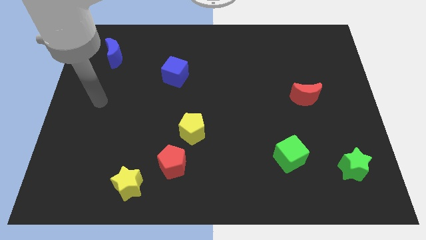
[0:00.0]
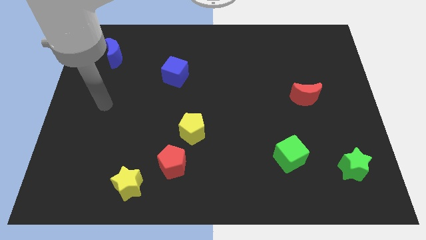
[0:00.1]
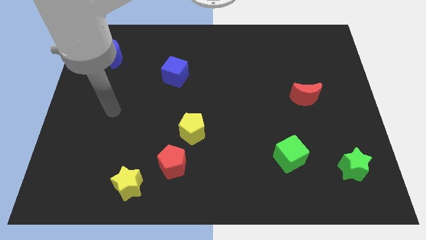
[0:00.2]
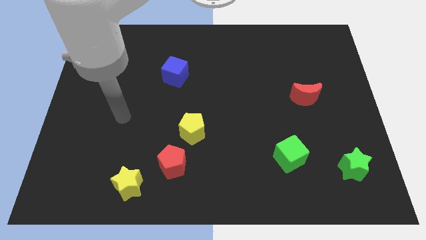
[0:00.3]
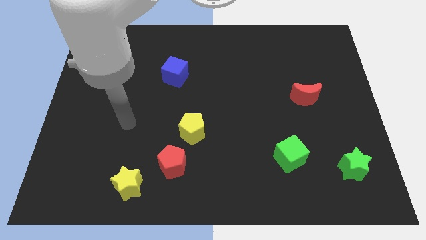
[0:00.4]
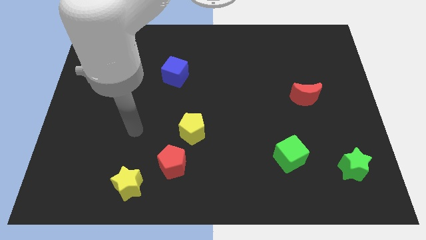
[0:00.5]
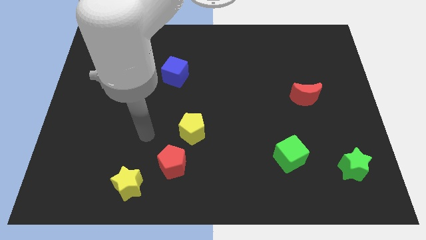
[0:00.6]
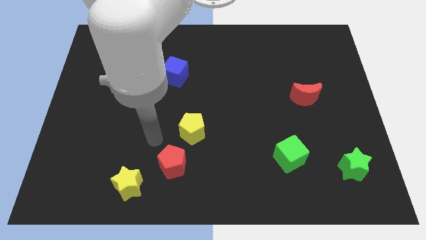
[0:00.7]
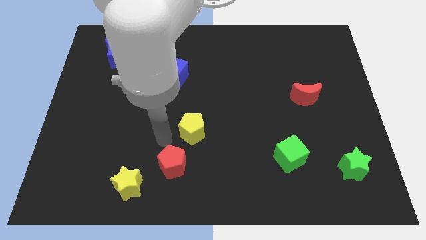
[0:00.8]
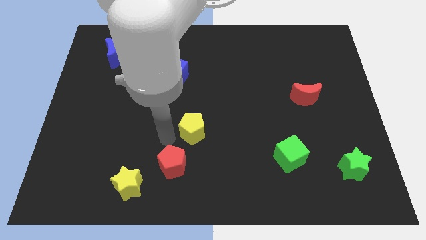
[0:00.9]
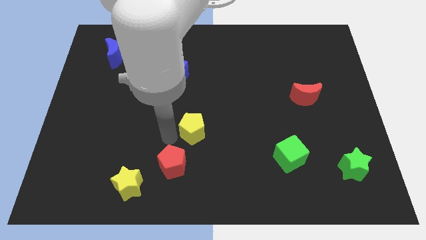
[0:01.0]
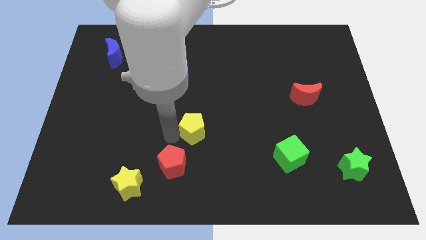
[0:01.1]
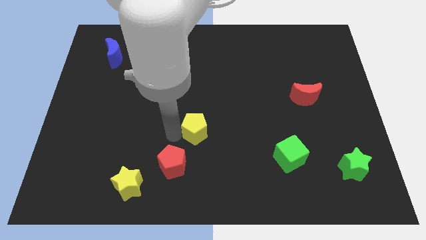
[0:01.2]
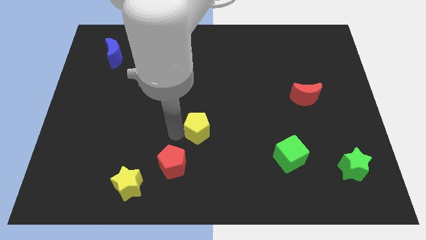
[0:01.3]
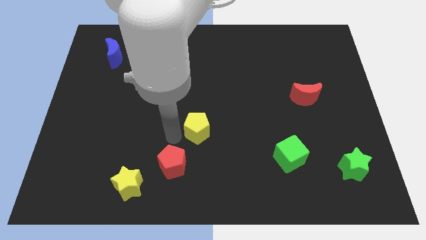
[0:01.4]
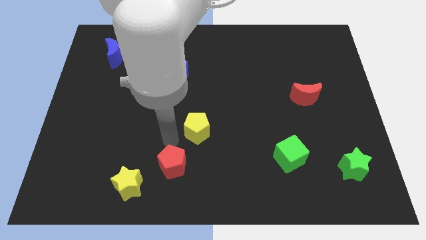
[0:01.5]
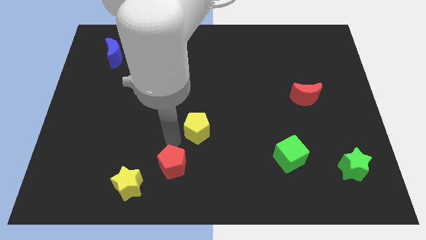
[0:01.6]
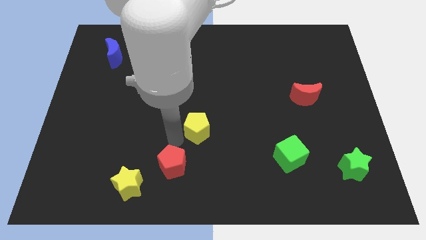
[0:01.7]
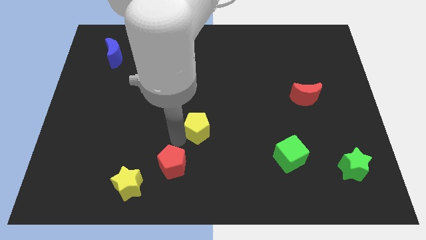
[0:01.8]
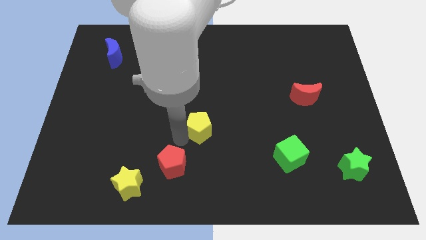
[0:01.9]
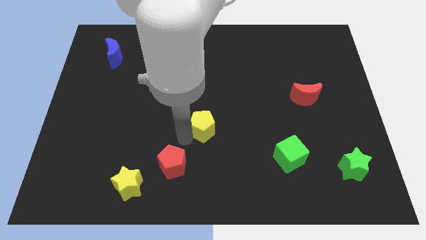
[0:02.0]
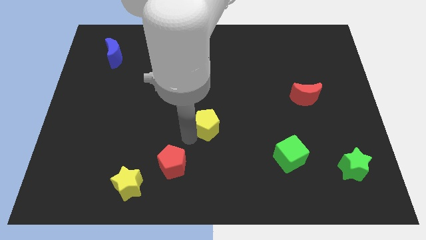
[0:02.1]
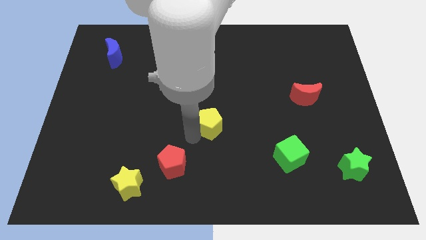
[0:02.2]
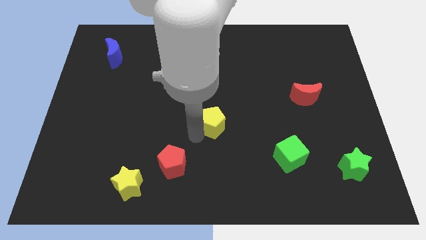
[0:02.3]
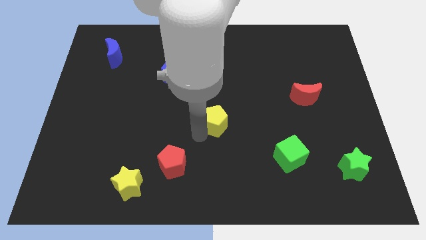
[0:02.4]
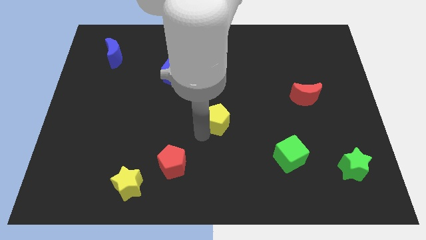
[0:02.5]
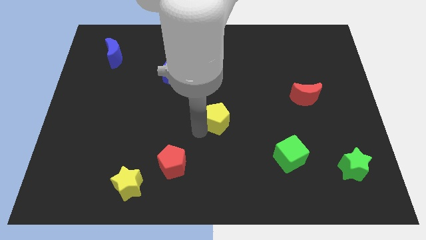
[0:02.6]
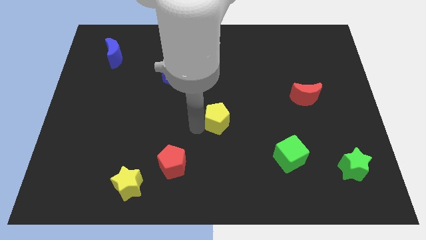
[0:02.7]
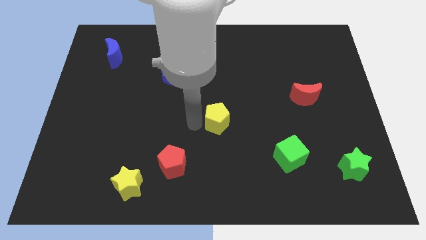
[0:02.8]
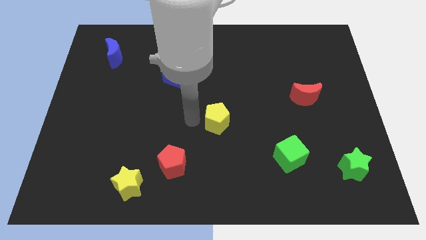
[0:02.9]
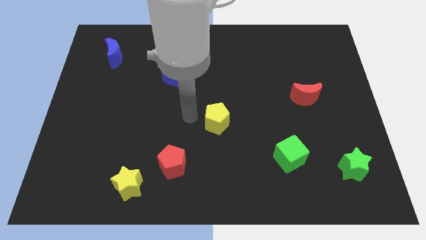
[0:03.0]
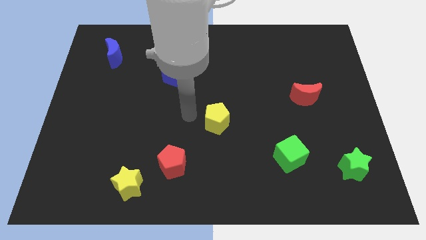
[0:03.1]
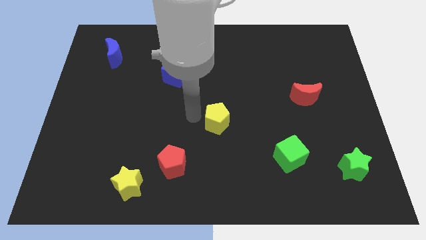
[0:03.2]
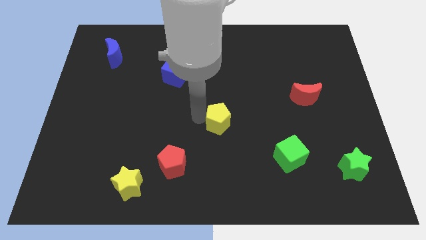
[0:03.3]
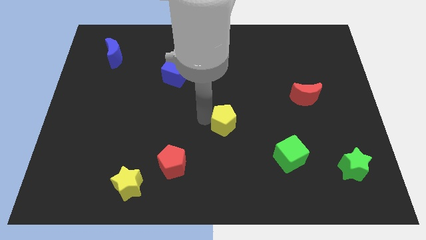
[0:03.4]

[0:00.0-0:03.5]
move the yellow pentagon right a little bit

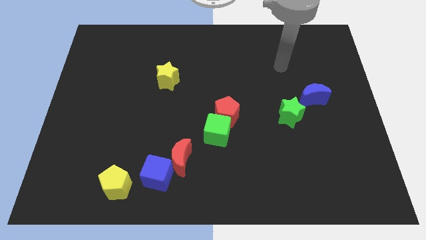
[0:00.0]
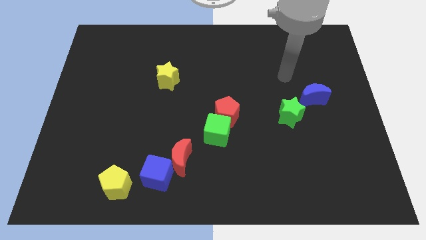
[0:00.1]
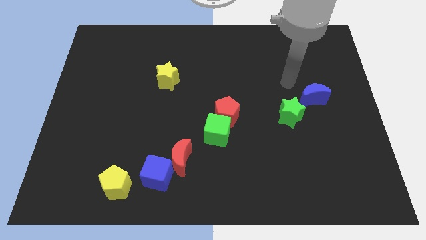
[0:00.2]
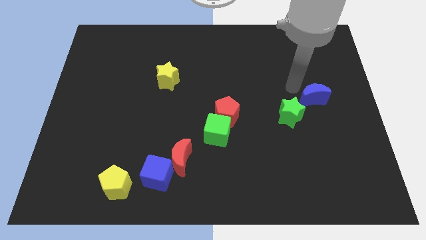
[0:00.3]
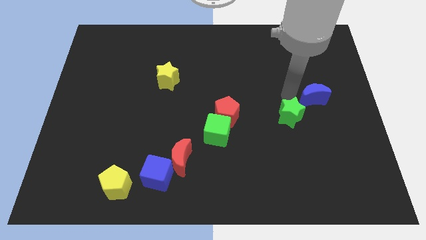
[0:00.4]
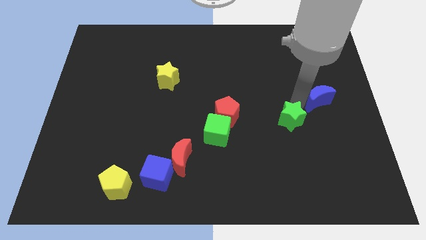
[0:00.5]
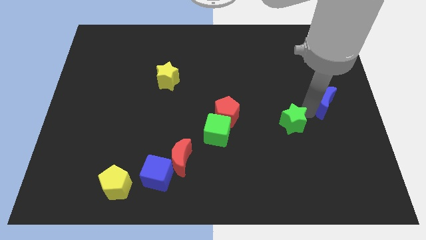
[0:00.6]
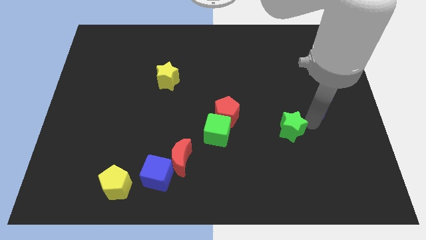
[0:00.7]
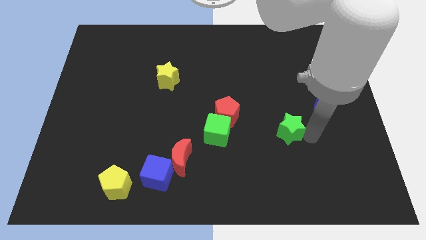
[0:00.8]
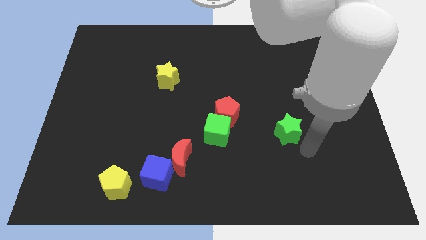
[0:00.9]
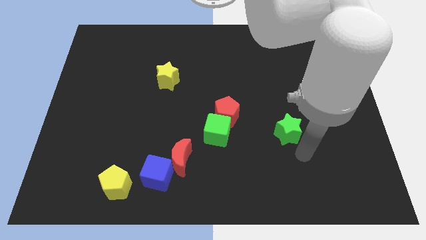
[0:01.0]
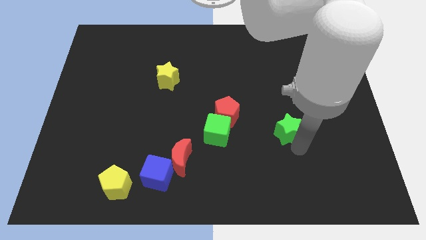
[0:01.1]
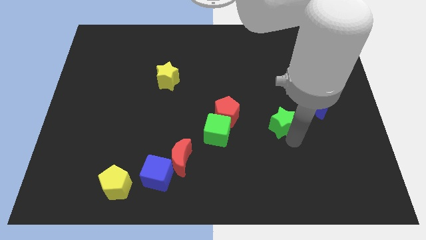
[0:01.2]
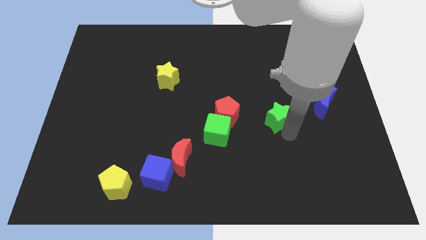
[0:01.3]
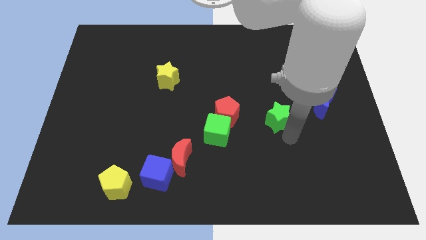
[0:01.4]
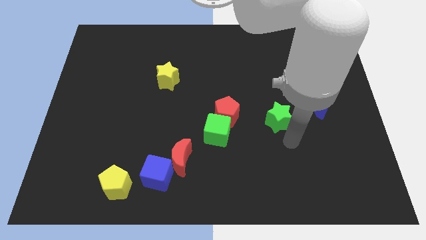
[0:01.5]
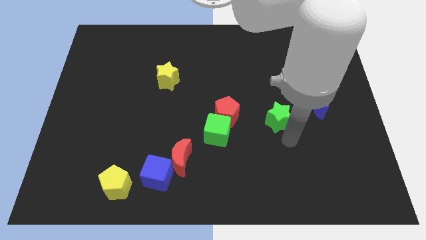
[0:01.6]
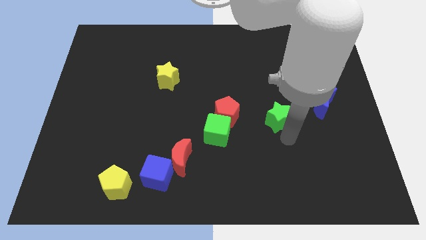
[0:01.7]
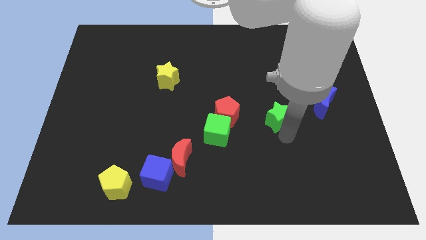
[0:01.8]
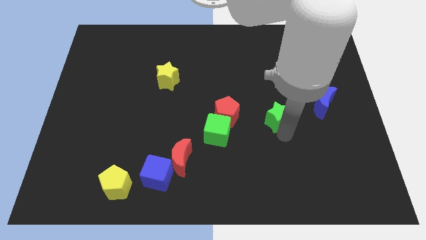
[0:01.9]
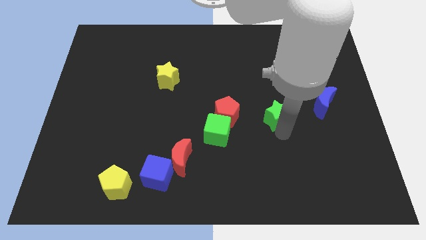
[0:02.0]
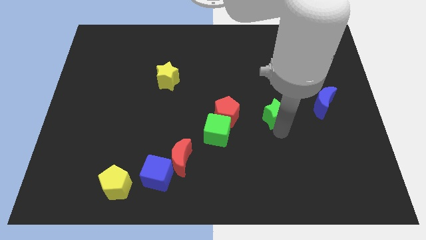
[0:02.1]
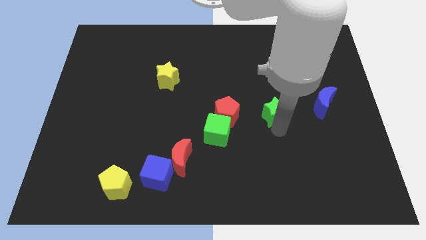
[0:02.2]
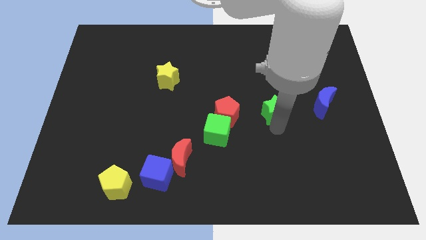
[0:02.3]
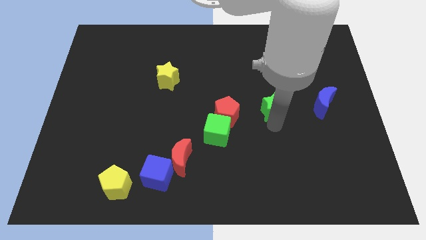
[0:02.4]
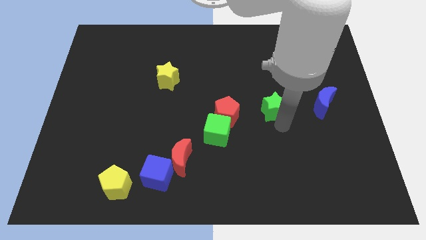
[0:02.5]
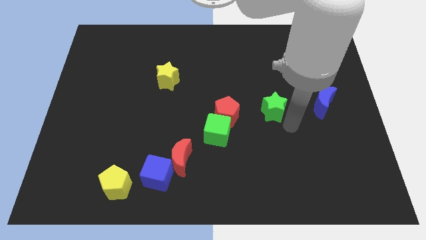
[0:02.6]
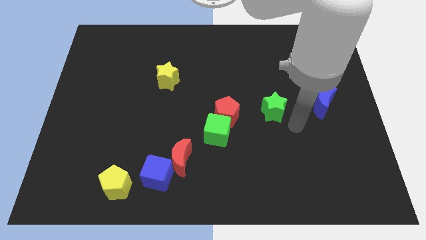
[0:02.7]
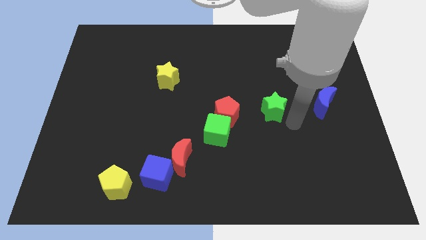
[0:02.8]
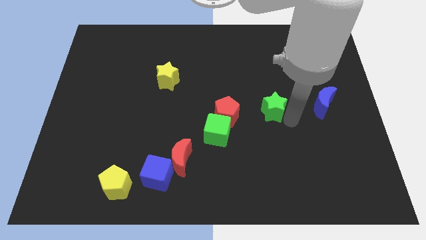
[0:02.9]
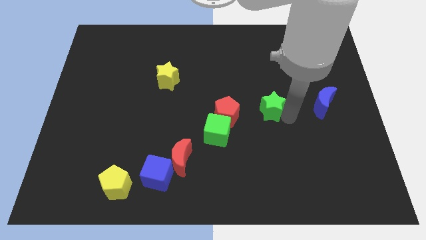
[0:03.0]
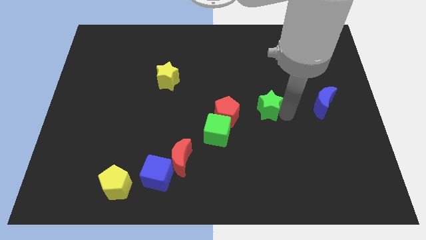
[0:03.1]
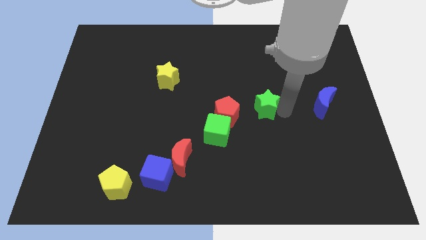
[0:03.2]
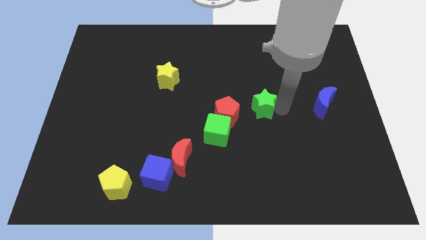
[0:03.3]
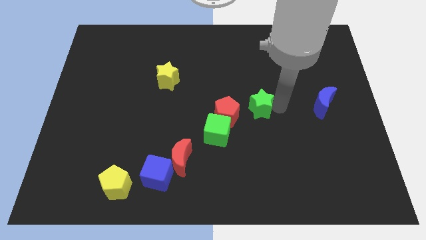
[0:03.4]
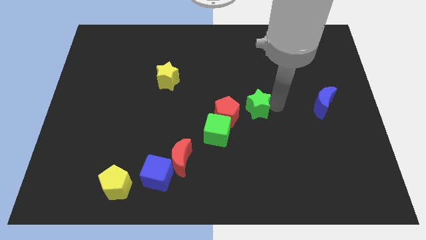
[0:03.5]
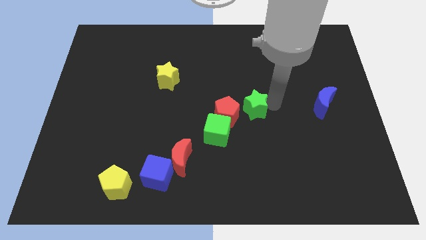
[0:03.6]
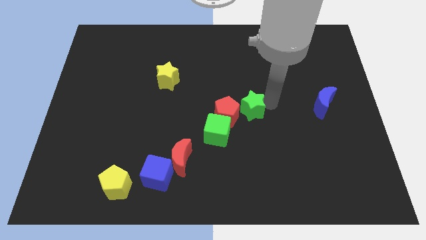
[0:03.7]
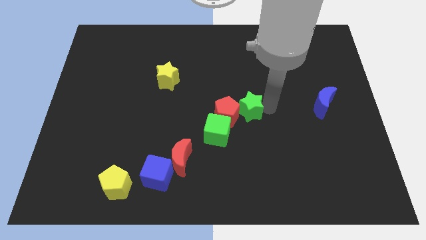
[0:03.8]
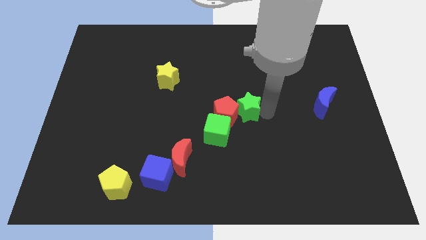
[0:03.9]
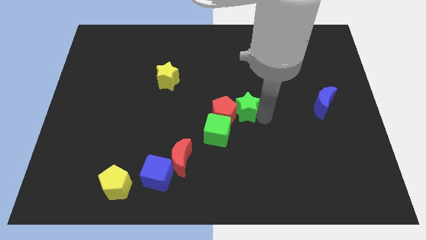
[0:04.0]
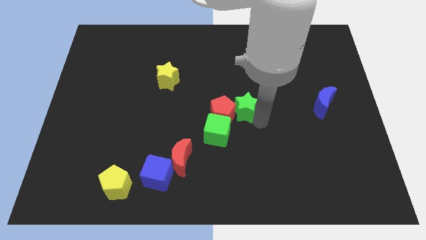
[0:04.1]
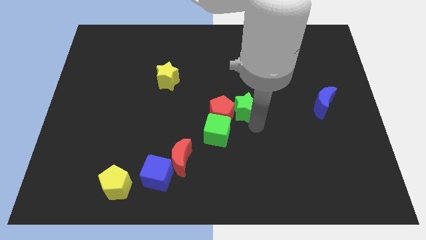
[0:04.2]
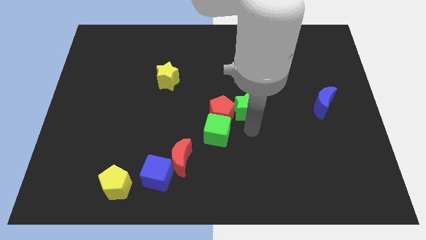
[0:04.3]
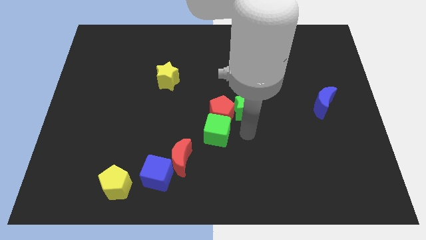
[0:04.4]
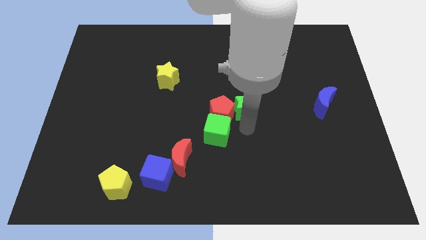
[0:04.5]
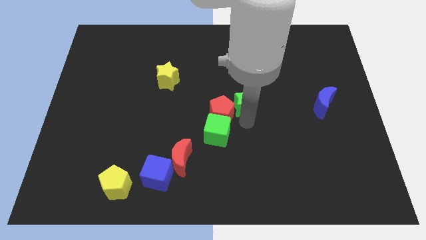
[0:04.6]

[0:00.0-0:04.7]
push the green star somewhat diagonally upwards and to the left

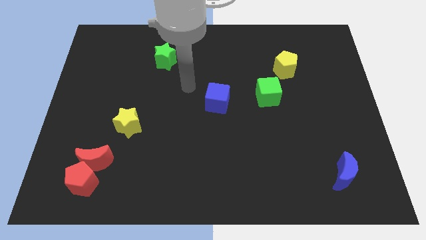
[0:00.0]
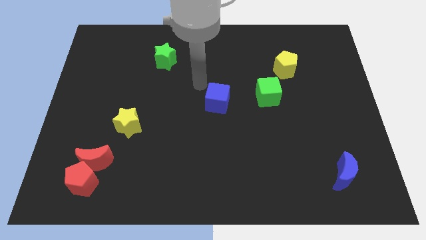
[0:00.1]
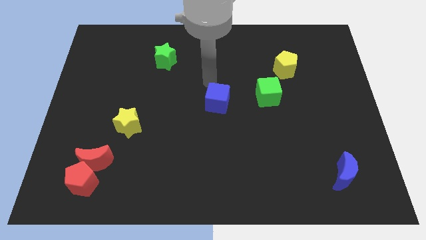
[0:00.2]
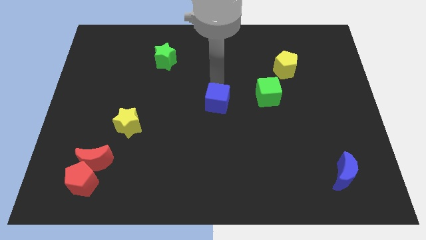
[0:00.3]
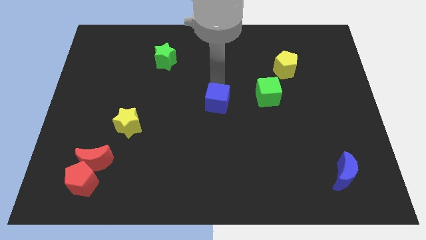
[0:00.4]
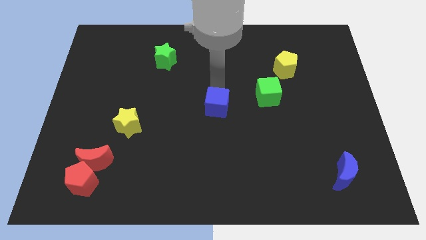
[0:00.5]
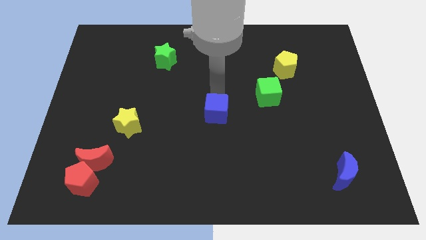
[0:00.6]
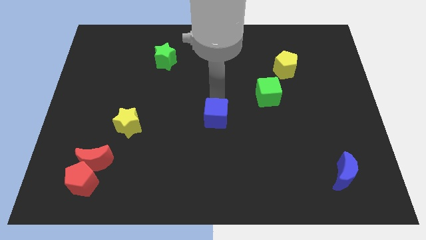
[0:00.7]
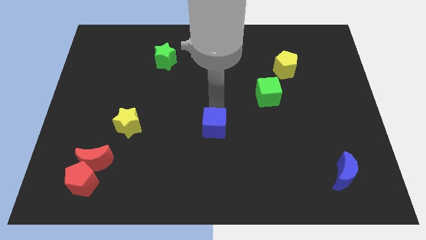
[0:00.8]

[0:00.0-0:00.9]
push the blue cube a bit down
